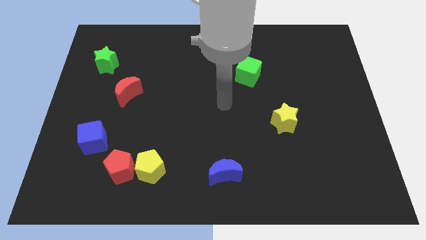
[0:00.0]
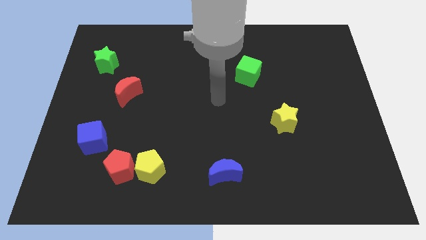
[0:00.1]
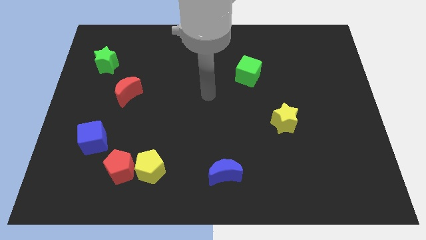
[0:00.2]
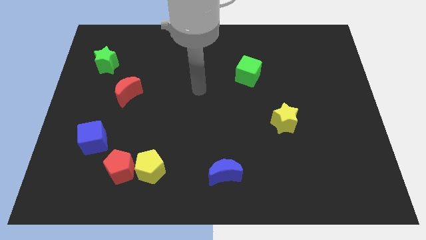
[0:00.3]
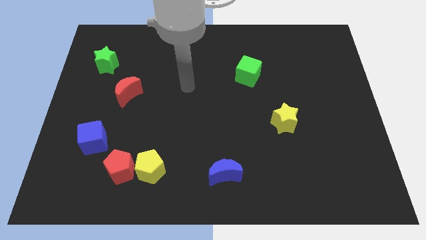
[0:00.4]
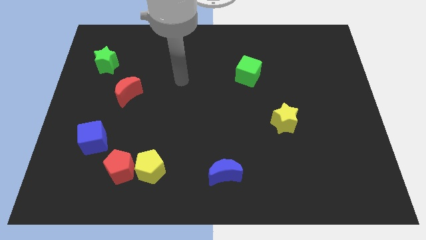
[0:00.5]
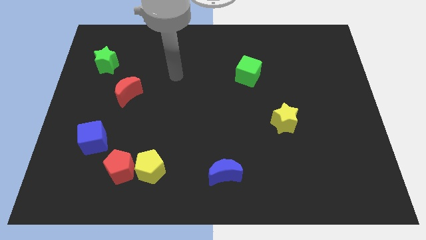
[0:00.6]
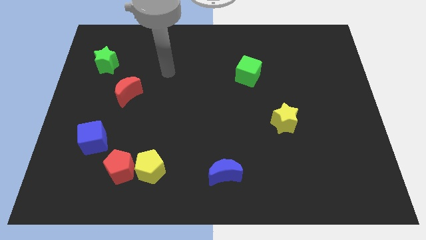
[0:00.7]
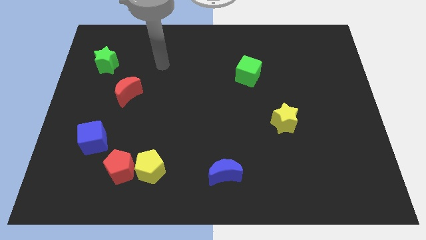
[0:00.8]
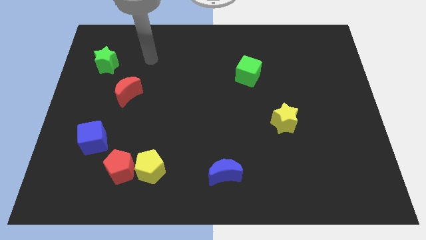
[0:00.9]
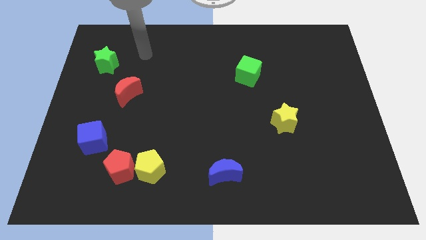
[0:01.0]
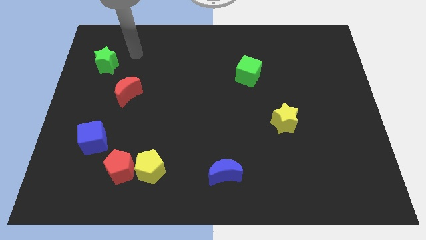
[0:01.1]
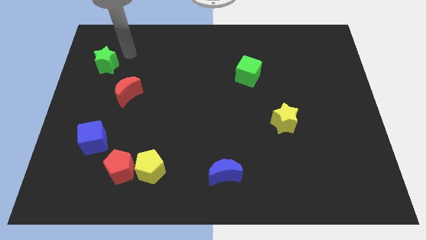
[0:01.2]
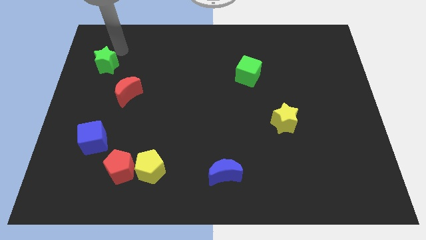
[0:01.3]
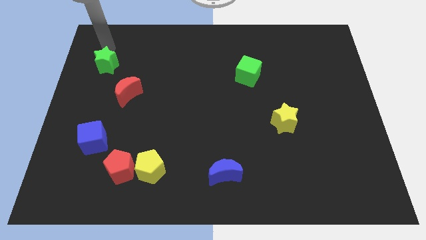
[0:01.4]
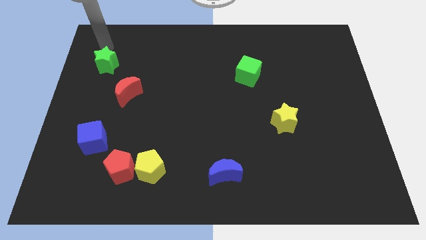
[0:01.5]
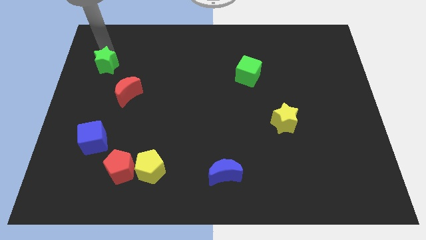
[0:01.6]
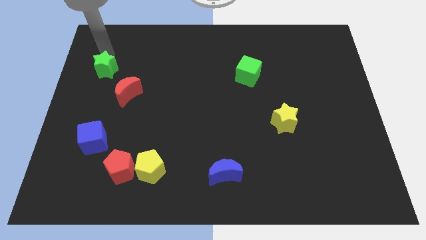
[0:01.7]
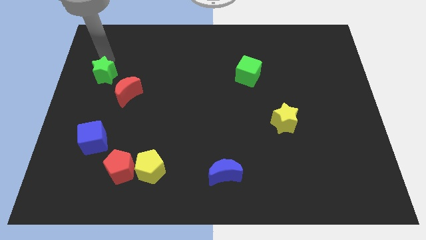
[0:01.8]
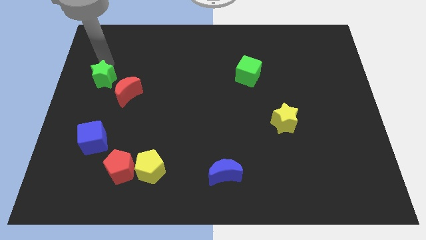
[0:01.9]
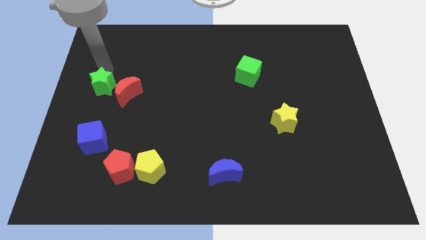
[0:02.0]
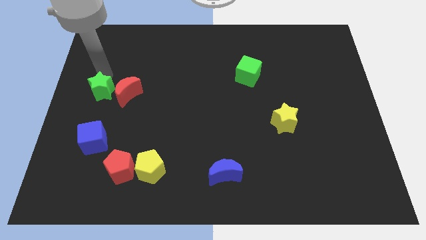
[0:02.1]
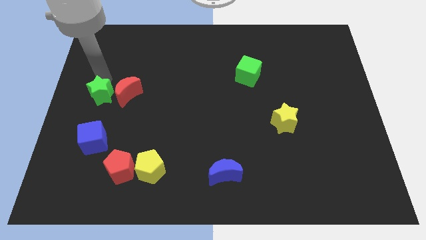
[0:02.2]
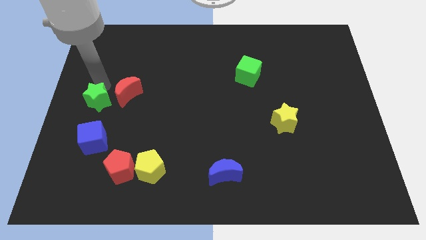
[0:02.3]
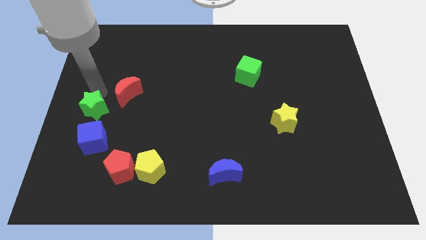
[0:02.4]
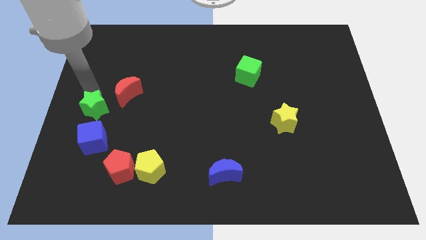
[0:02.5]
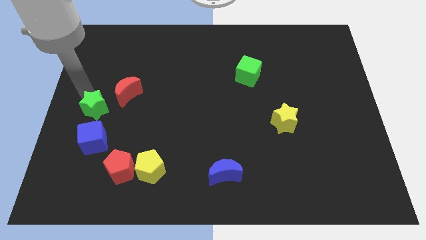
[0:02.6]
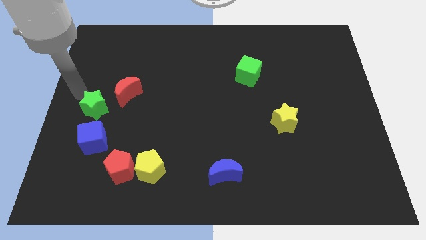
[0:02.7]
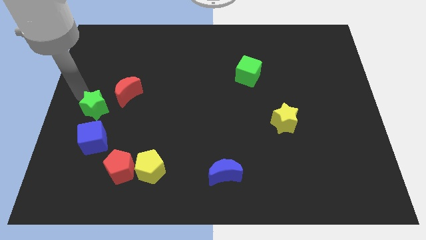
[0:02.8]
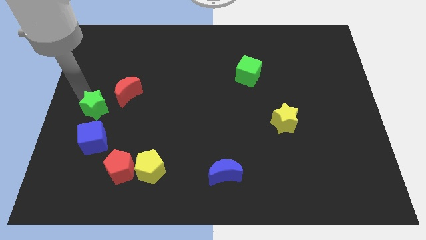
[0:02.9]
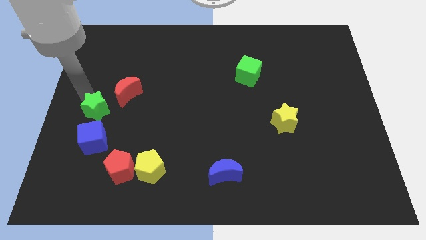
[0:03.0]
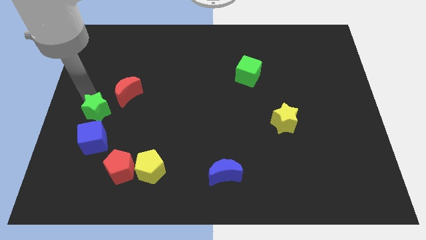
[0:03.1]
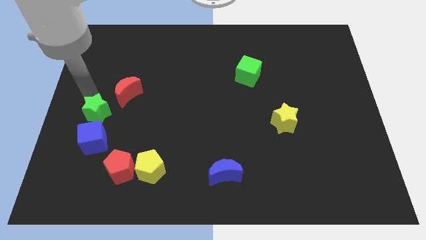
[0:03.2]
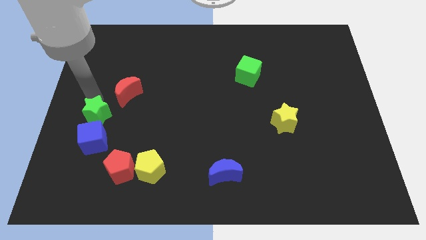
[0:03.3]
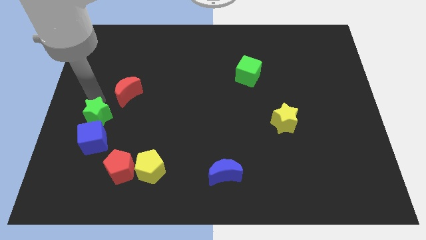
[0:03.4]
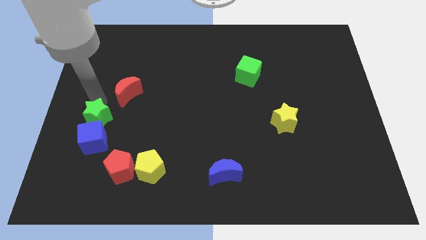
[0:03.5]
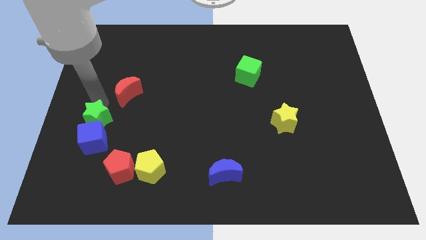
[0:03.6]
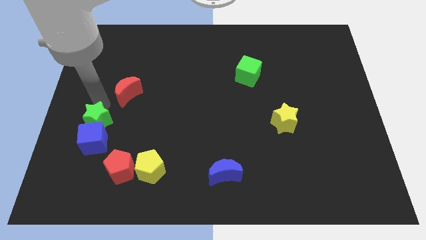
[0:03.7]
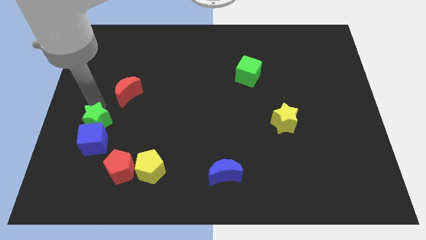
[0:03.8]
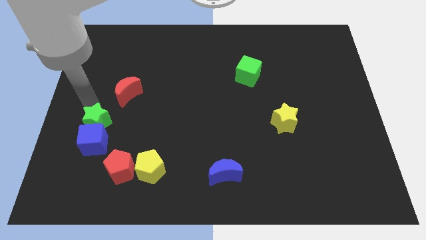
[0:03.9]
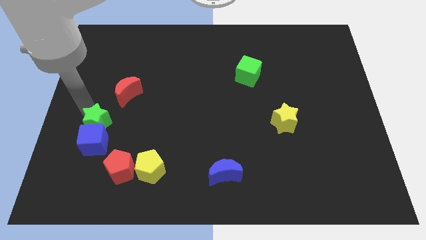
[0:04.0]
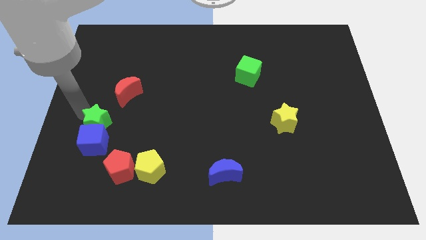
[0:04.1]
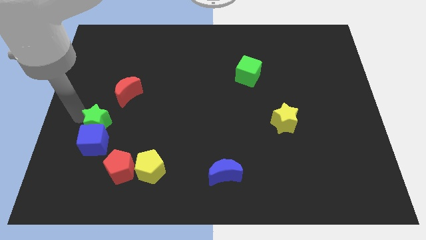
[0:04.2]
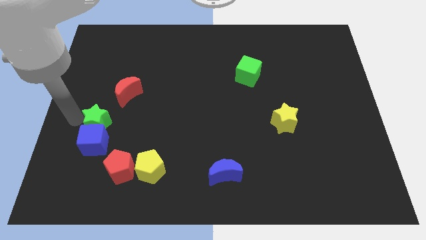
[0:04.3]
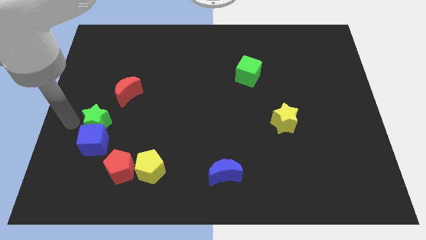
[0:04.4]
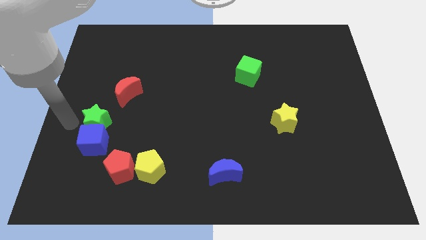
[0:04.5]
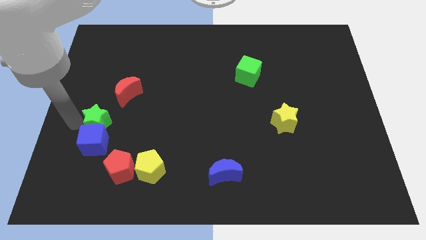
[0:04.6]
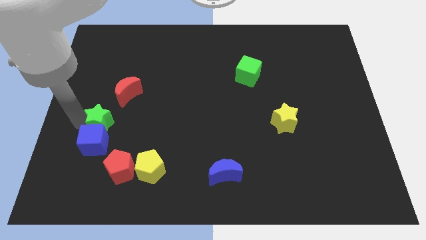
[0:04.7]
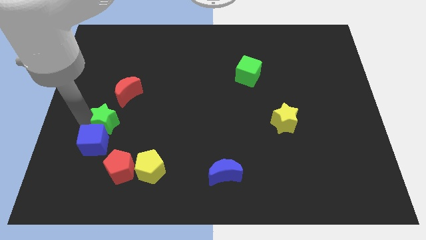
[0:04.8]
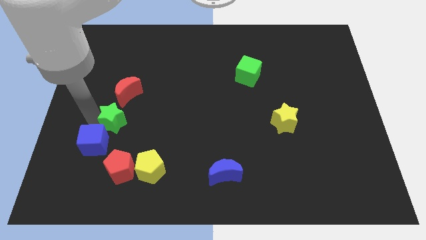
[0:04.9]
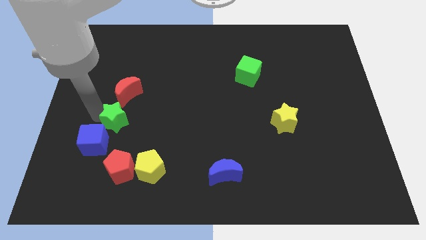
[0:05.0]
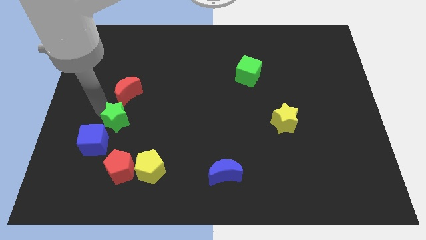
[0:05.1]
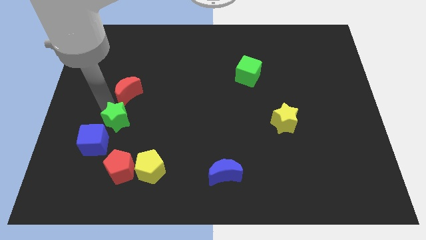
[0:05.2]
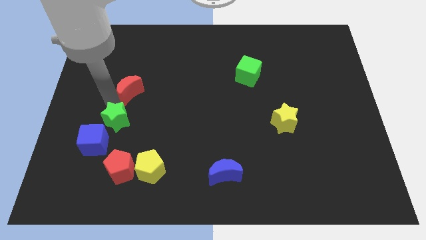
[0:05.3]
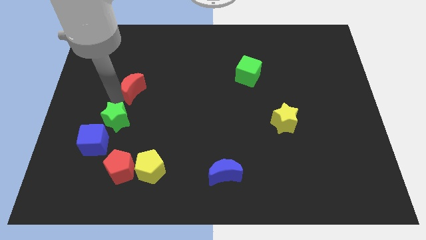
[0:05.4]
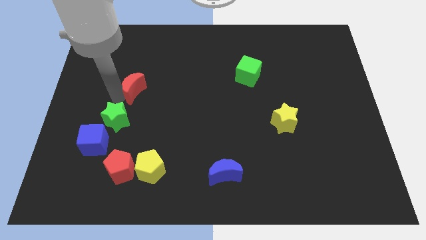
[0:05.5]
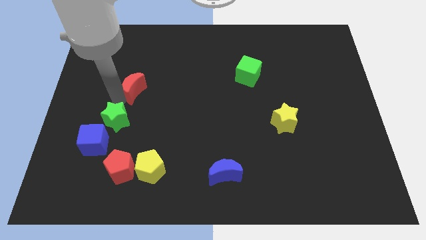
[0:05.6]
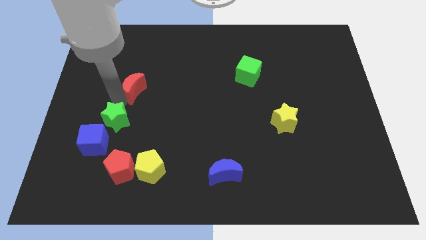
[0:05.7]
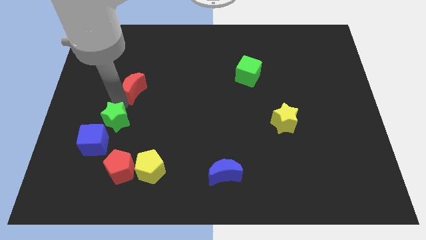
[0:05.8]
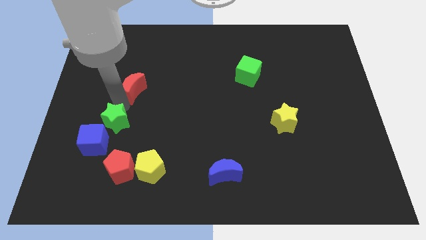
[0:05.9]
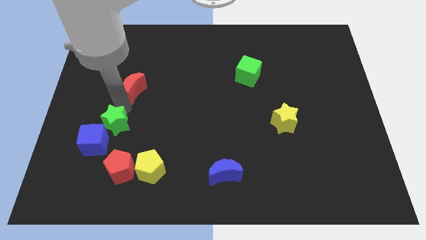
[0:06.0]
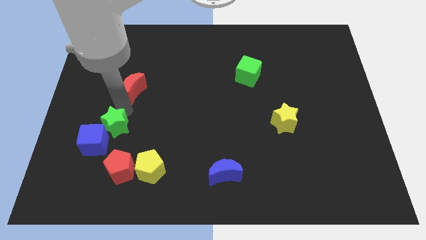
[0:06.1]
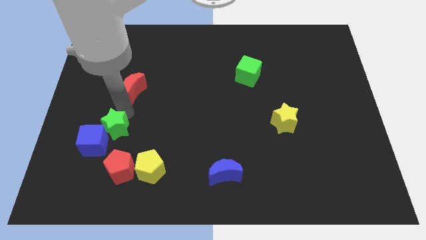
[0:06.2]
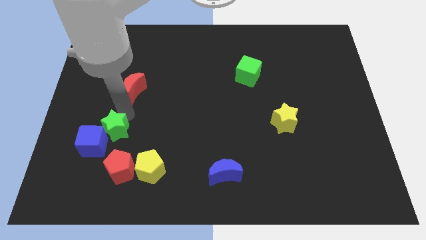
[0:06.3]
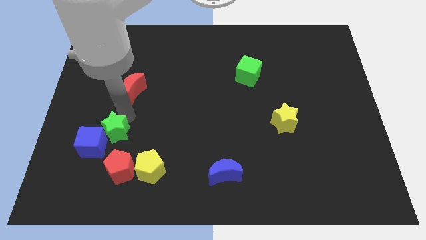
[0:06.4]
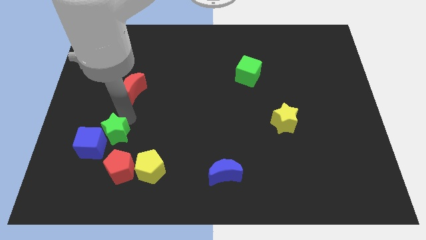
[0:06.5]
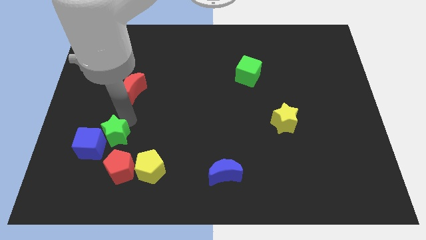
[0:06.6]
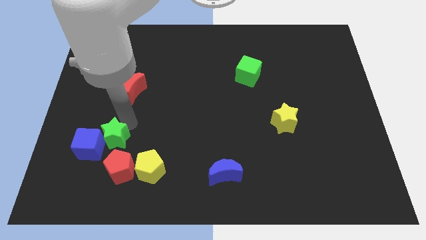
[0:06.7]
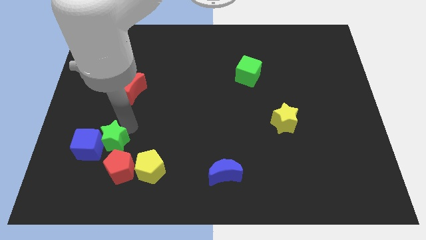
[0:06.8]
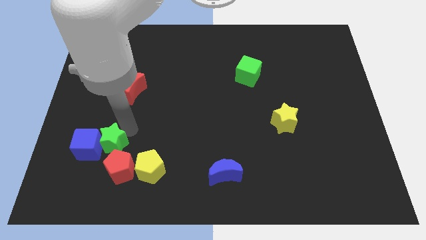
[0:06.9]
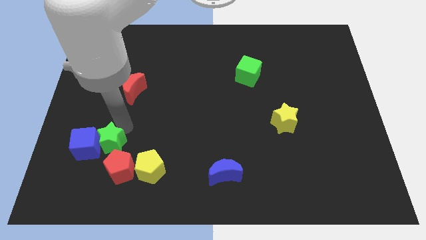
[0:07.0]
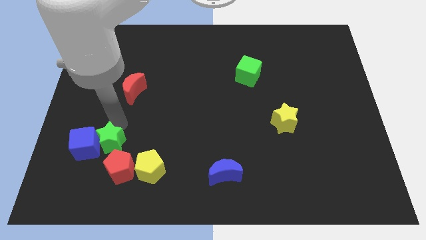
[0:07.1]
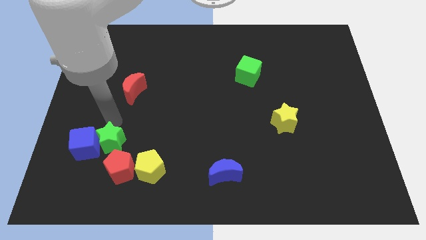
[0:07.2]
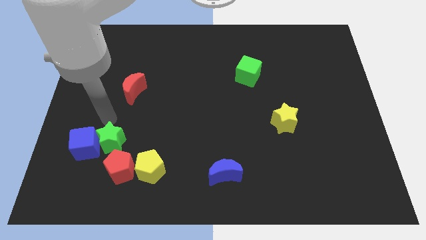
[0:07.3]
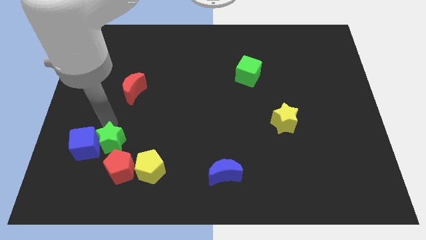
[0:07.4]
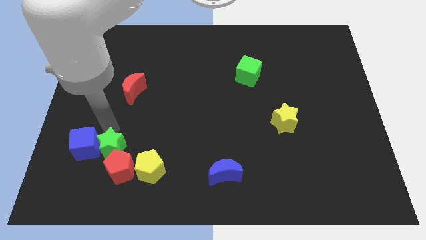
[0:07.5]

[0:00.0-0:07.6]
move the green star towards the red pentagon
